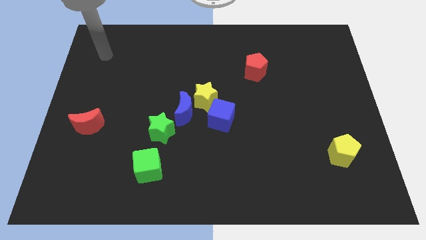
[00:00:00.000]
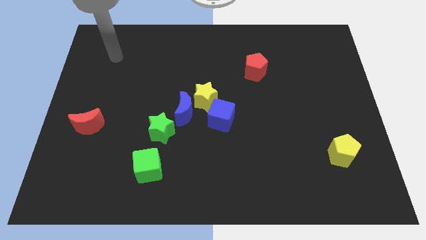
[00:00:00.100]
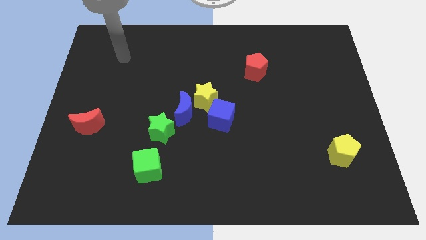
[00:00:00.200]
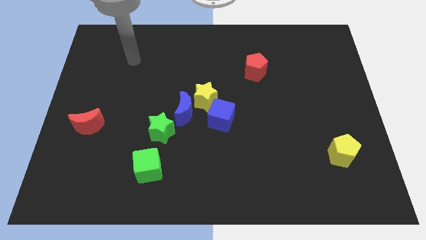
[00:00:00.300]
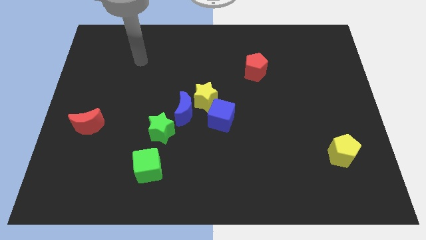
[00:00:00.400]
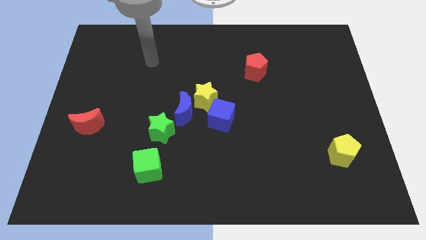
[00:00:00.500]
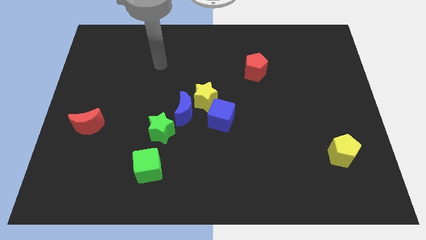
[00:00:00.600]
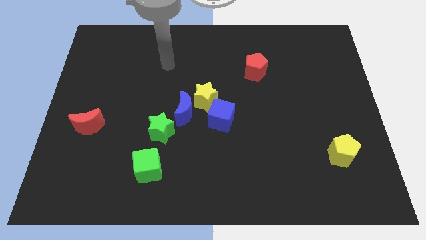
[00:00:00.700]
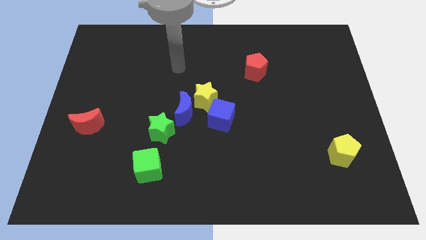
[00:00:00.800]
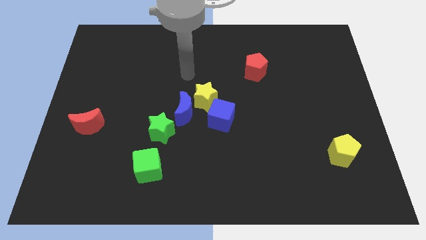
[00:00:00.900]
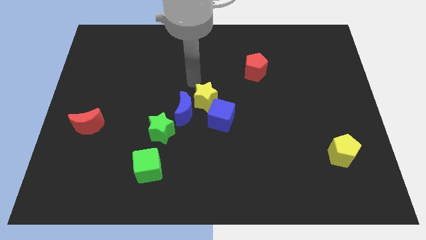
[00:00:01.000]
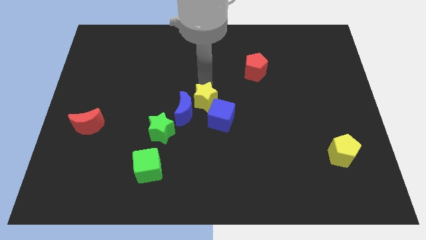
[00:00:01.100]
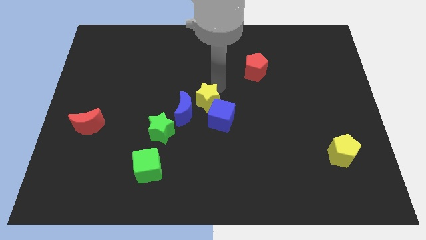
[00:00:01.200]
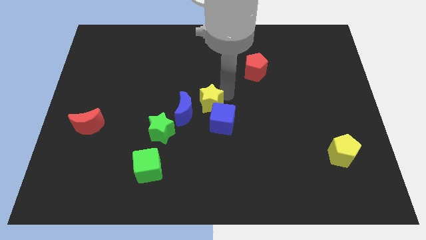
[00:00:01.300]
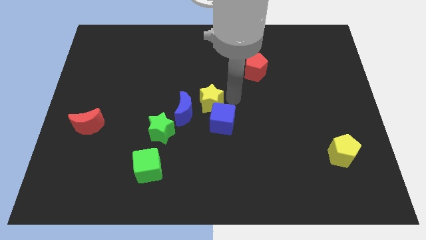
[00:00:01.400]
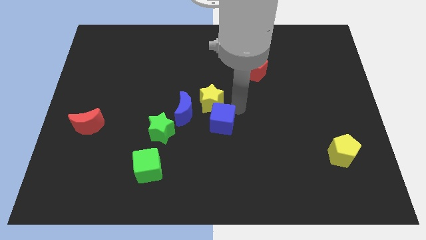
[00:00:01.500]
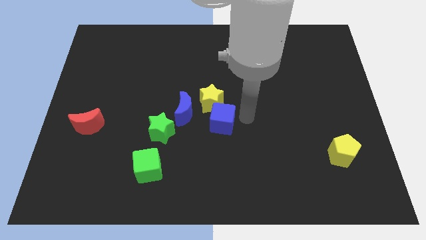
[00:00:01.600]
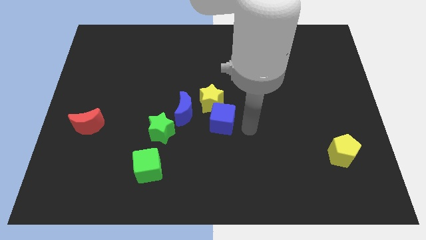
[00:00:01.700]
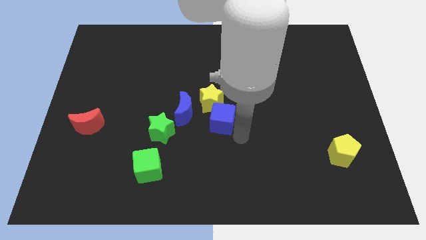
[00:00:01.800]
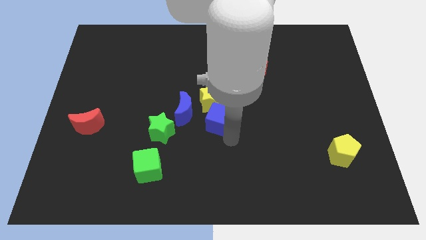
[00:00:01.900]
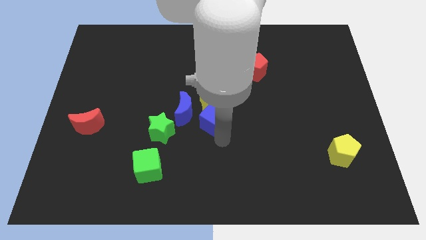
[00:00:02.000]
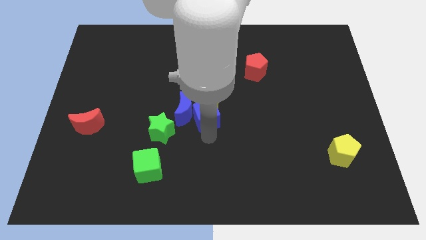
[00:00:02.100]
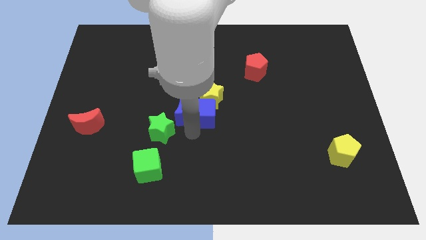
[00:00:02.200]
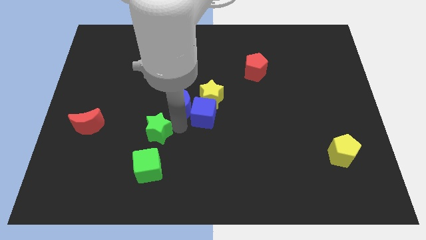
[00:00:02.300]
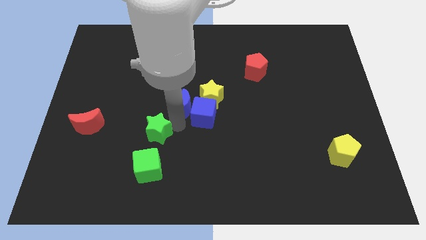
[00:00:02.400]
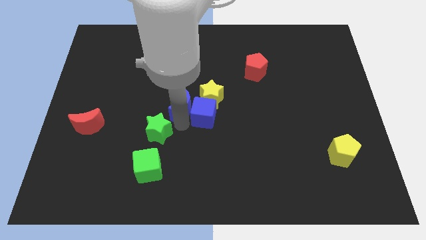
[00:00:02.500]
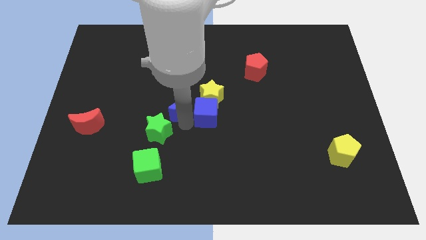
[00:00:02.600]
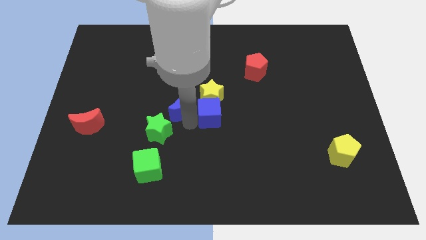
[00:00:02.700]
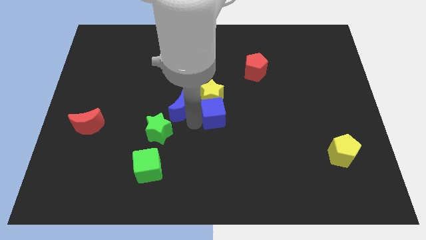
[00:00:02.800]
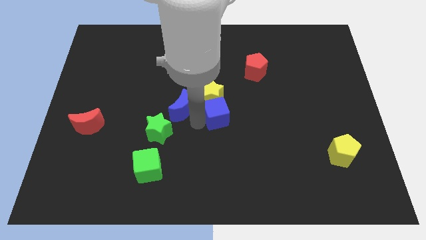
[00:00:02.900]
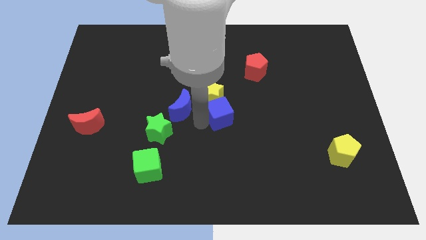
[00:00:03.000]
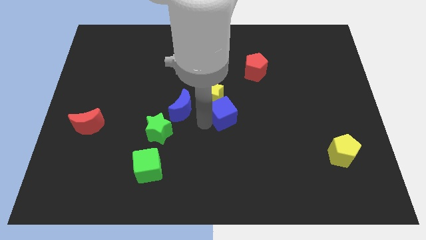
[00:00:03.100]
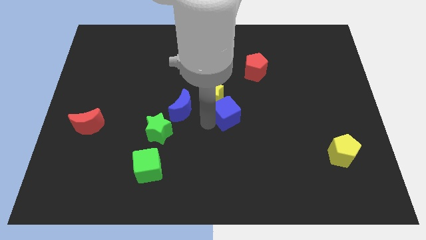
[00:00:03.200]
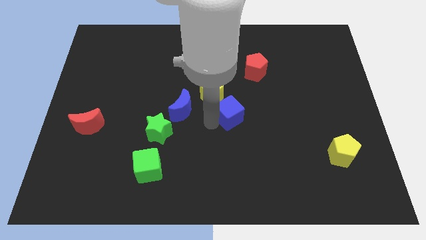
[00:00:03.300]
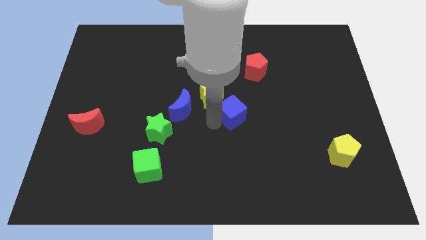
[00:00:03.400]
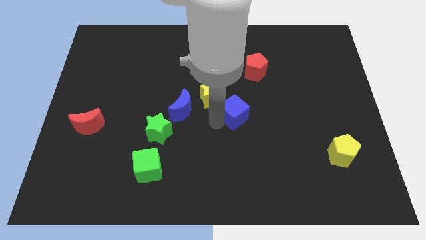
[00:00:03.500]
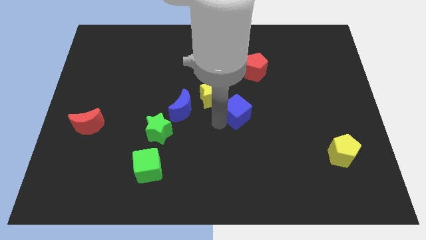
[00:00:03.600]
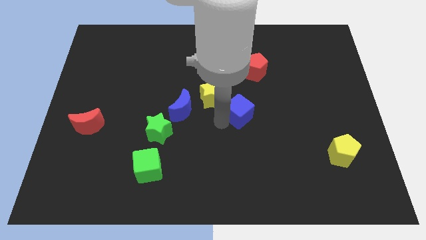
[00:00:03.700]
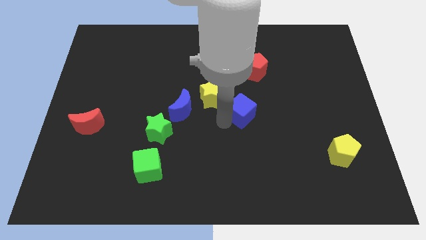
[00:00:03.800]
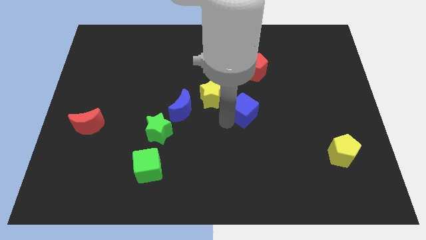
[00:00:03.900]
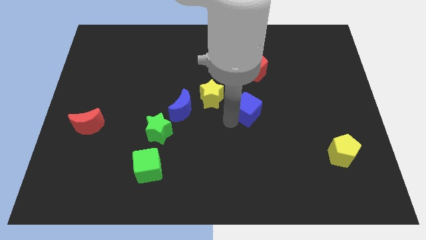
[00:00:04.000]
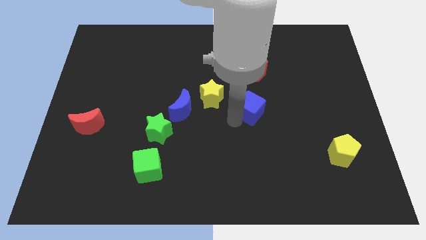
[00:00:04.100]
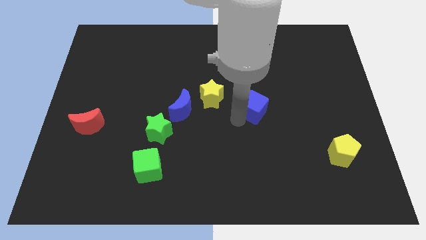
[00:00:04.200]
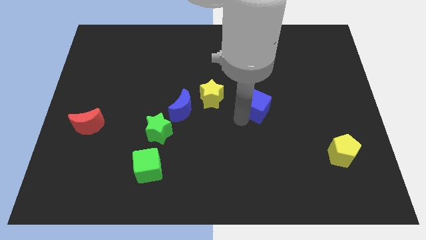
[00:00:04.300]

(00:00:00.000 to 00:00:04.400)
slightly push the blue cube upwards and right

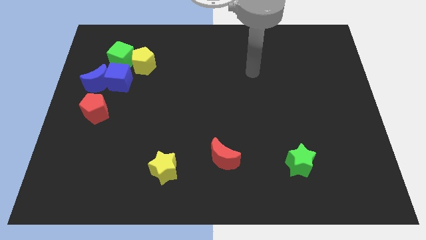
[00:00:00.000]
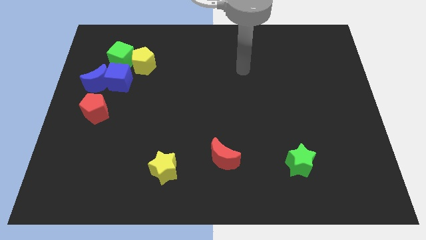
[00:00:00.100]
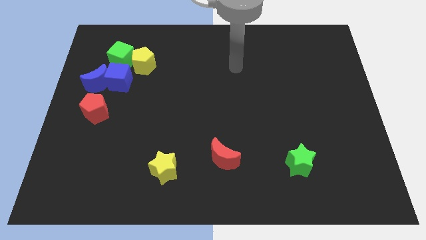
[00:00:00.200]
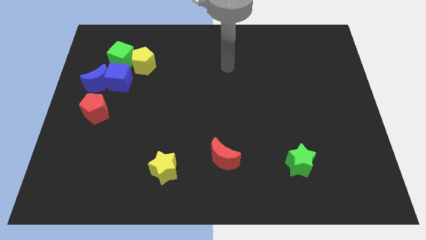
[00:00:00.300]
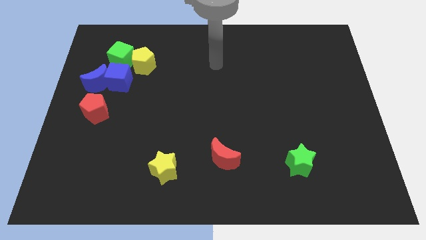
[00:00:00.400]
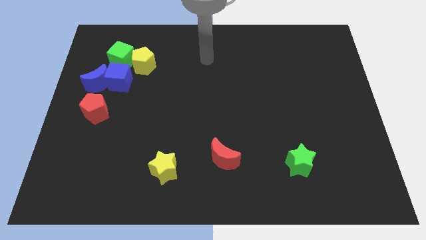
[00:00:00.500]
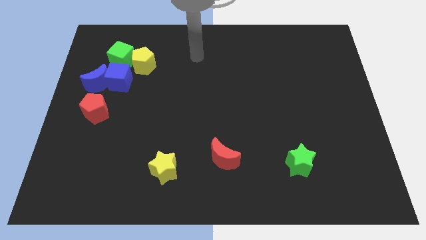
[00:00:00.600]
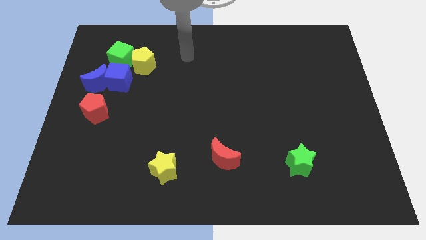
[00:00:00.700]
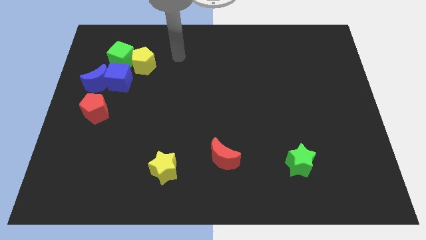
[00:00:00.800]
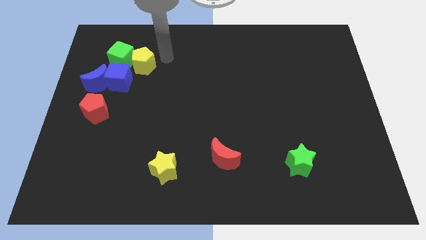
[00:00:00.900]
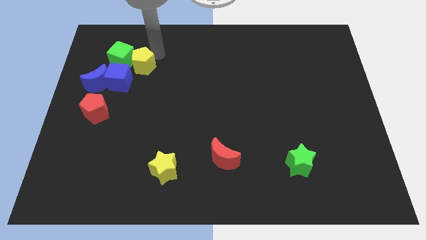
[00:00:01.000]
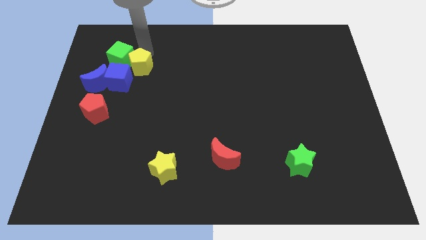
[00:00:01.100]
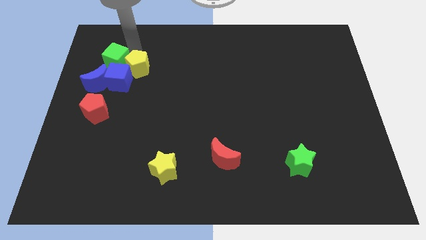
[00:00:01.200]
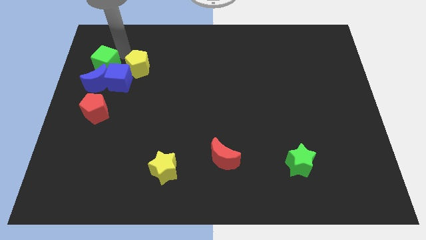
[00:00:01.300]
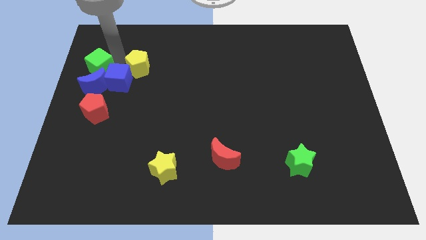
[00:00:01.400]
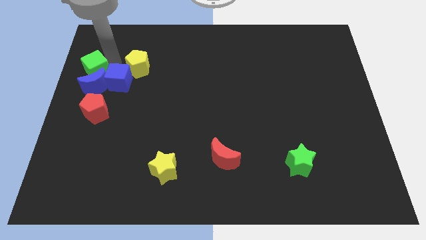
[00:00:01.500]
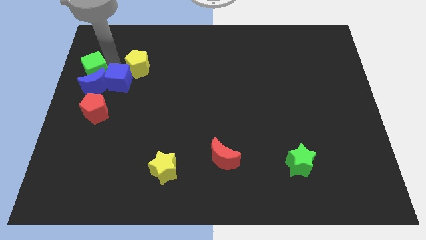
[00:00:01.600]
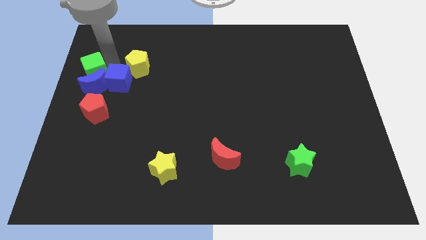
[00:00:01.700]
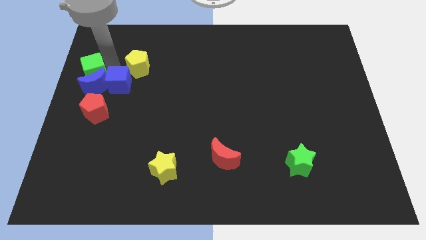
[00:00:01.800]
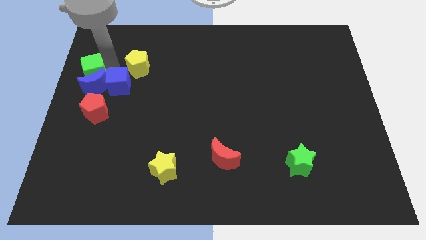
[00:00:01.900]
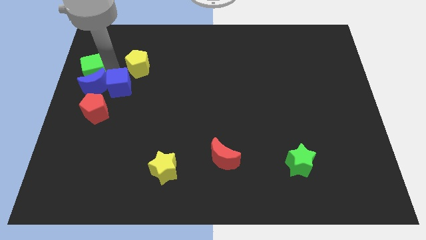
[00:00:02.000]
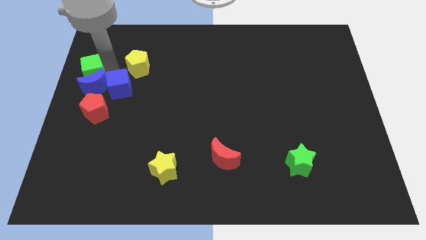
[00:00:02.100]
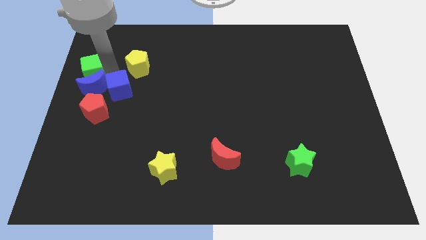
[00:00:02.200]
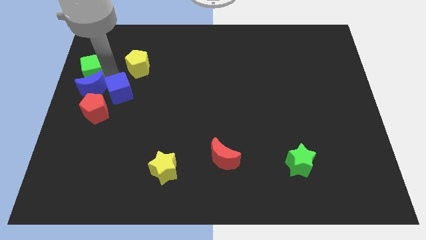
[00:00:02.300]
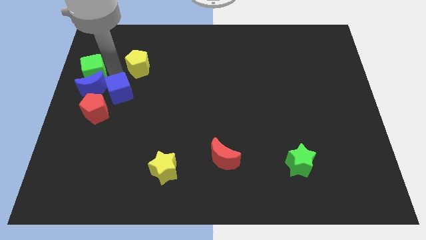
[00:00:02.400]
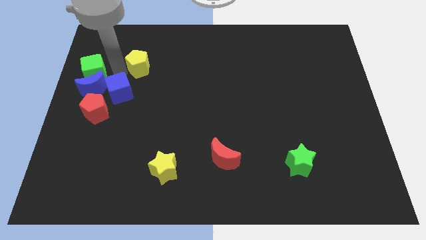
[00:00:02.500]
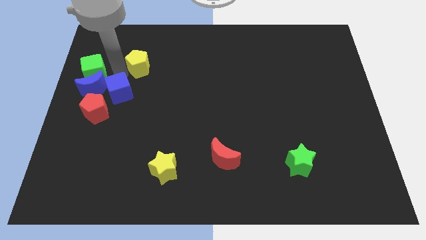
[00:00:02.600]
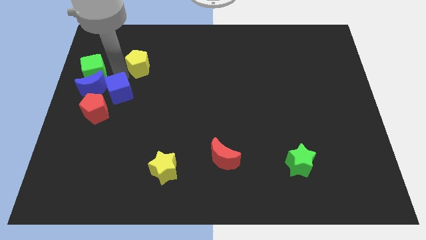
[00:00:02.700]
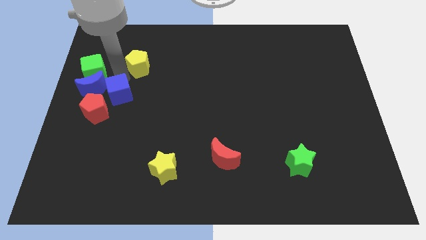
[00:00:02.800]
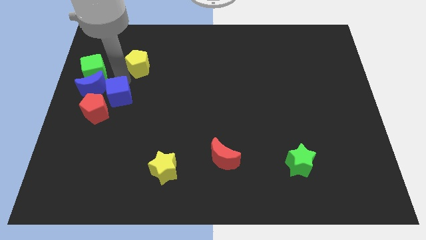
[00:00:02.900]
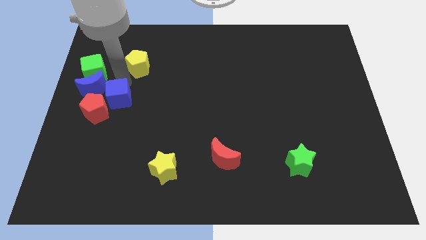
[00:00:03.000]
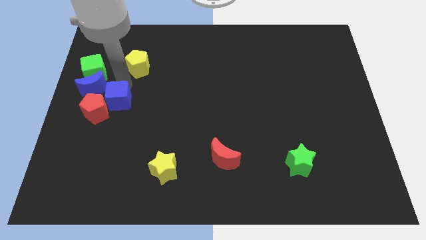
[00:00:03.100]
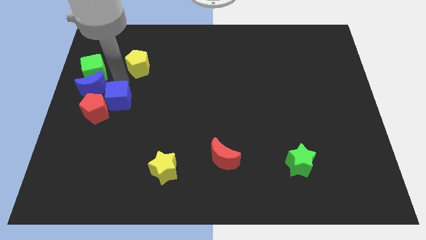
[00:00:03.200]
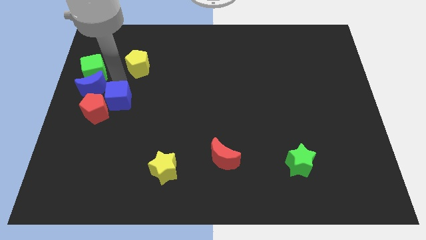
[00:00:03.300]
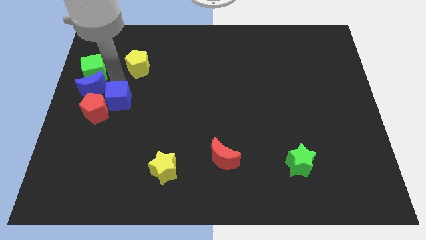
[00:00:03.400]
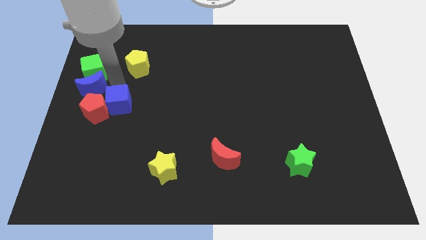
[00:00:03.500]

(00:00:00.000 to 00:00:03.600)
push the blue cube a little bit down
